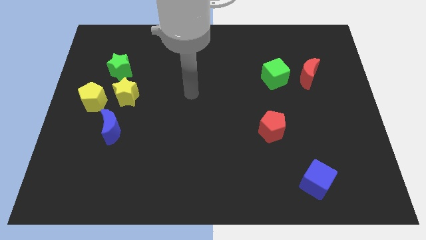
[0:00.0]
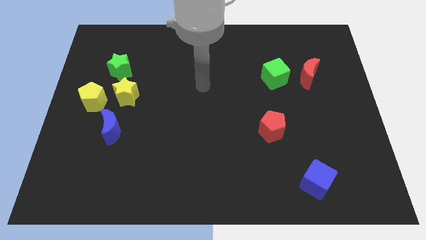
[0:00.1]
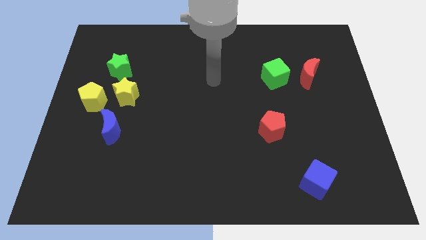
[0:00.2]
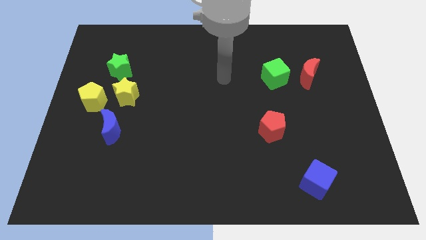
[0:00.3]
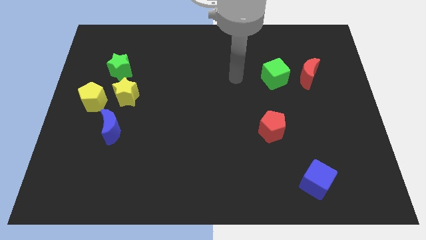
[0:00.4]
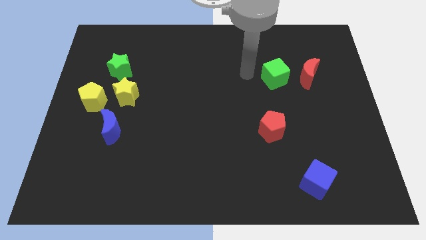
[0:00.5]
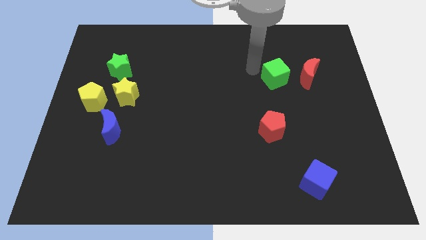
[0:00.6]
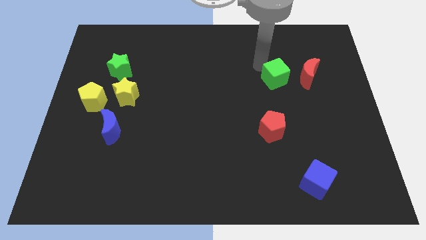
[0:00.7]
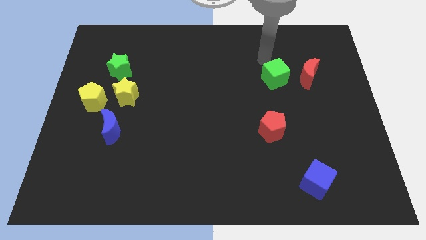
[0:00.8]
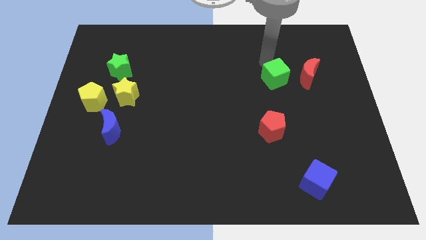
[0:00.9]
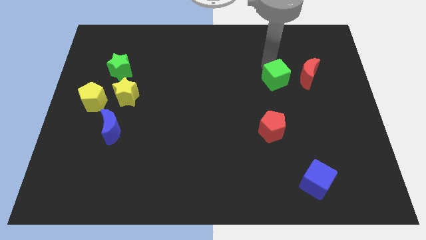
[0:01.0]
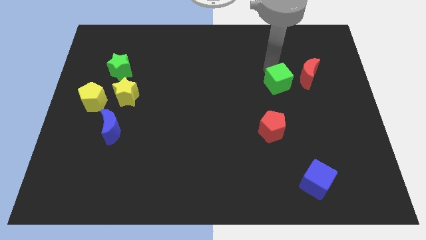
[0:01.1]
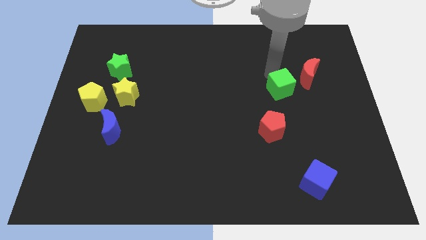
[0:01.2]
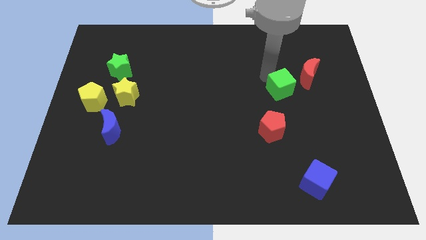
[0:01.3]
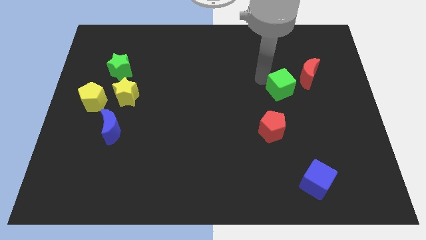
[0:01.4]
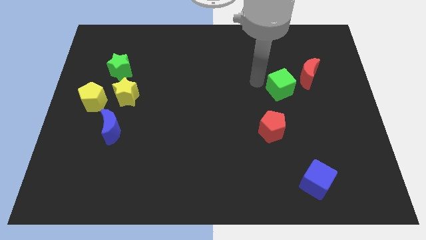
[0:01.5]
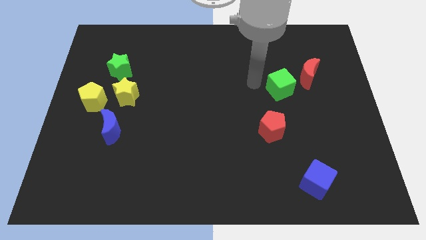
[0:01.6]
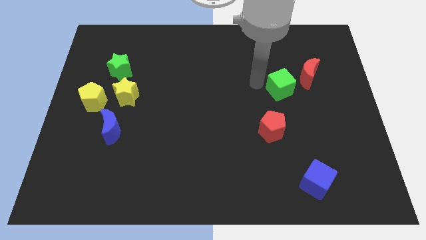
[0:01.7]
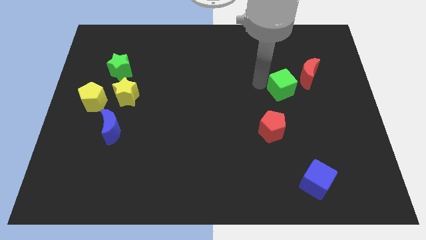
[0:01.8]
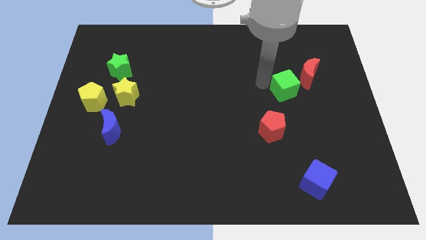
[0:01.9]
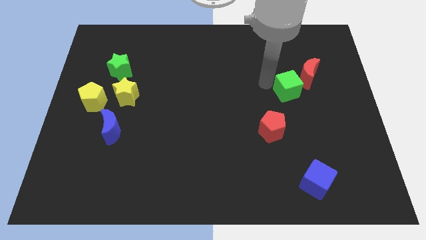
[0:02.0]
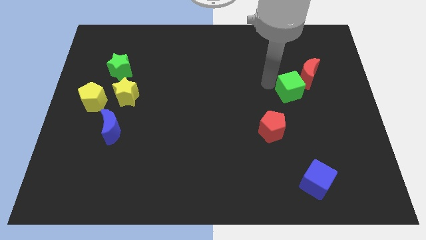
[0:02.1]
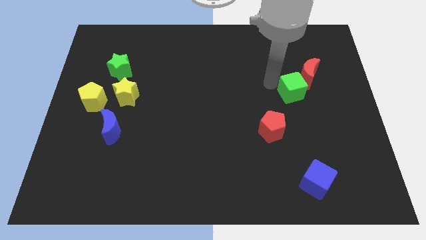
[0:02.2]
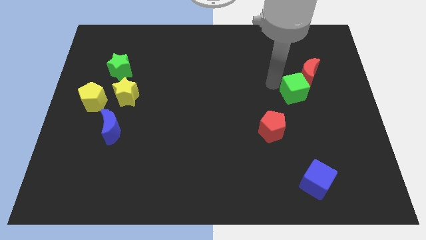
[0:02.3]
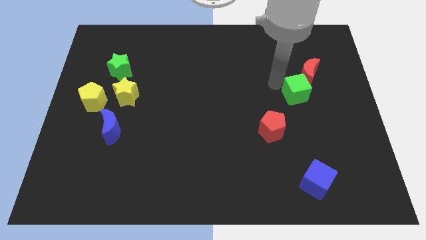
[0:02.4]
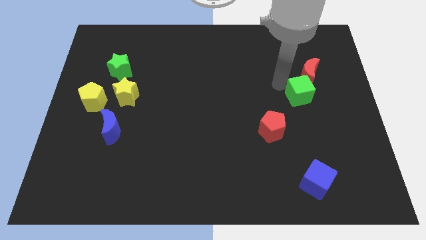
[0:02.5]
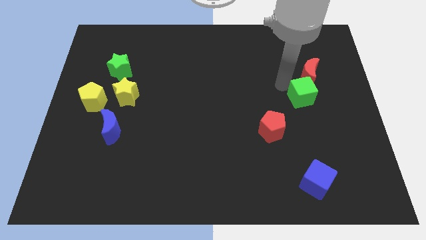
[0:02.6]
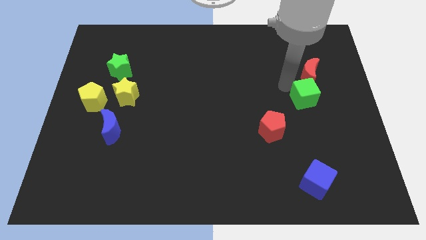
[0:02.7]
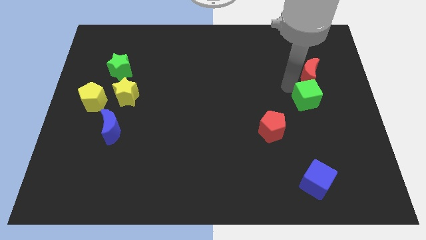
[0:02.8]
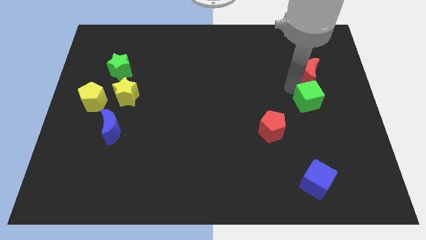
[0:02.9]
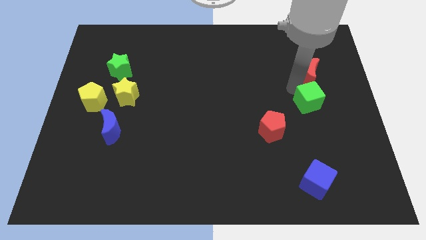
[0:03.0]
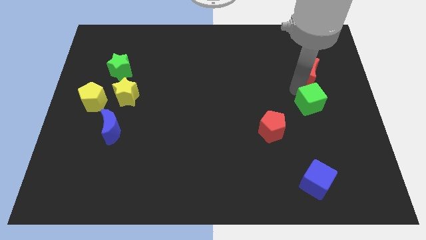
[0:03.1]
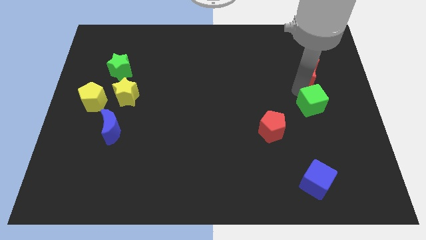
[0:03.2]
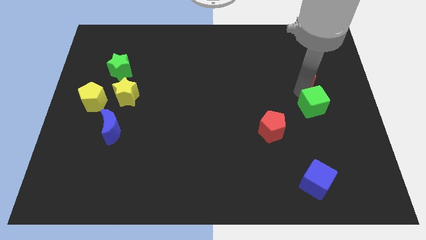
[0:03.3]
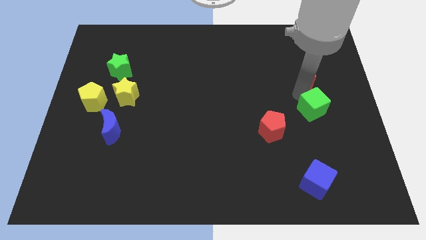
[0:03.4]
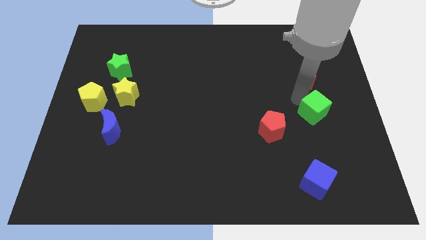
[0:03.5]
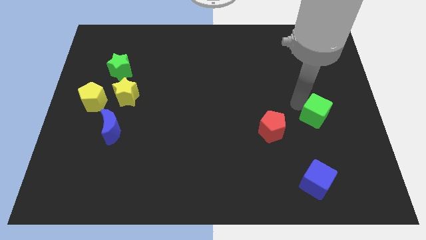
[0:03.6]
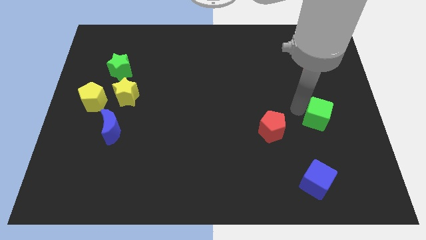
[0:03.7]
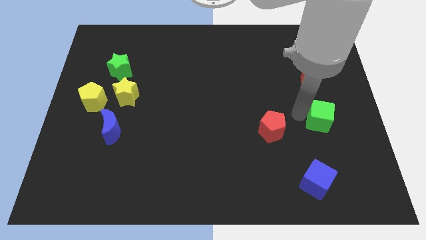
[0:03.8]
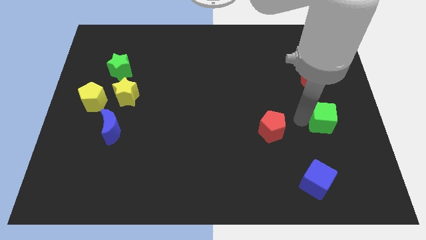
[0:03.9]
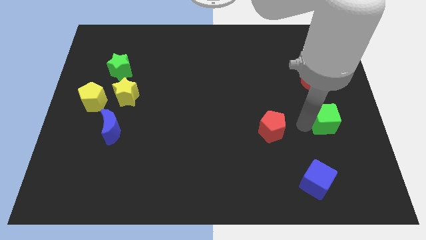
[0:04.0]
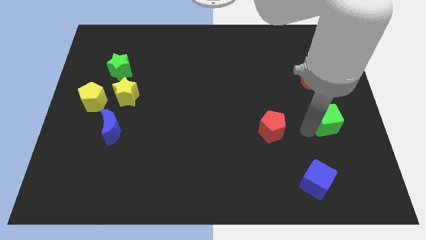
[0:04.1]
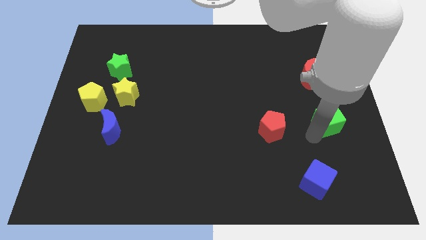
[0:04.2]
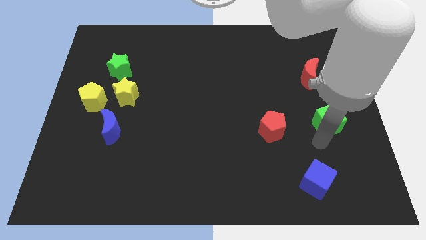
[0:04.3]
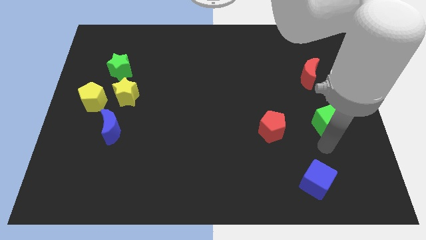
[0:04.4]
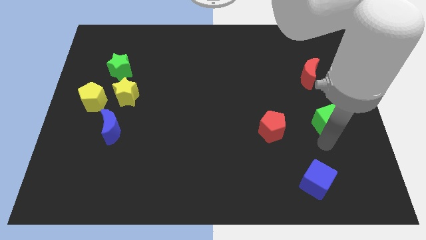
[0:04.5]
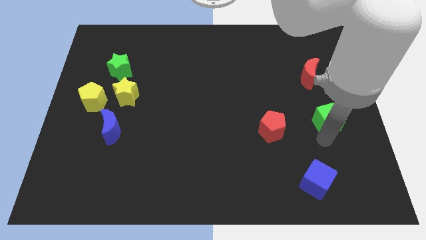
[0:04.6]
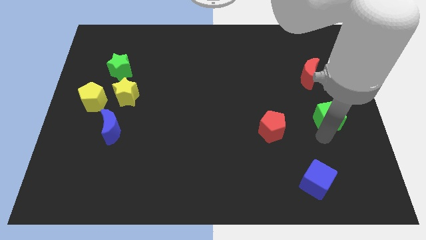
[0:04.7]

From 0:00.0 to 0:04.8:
push the green cube to the center right

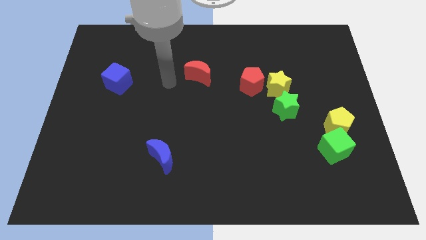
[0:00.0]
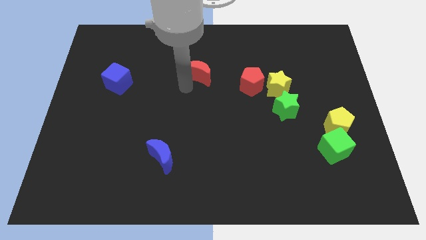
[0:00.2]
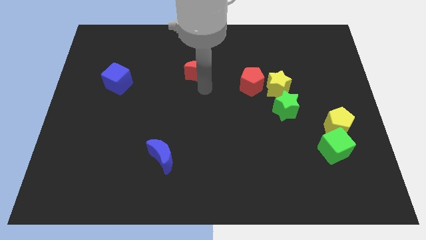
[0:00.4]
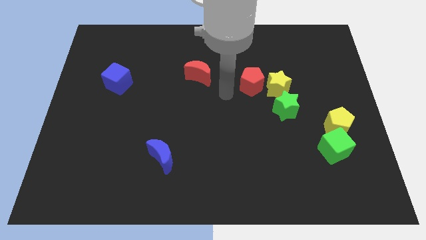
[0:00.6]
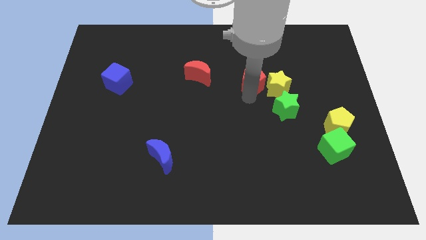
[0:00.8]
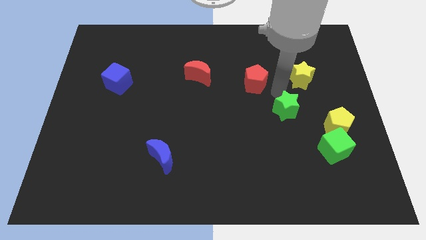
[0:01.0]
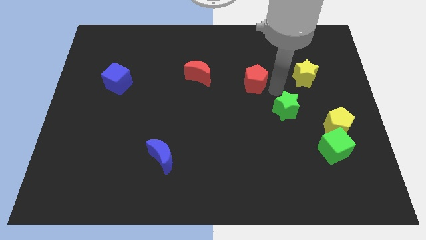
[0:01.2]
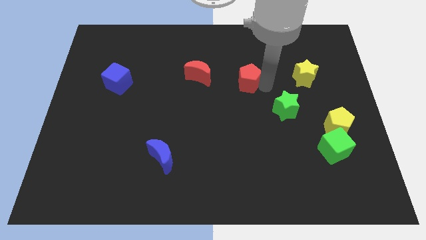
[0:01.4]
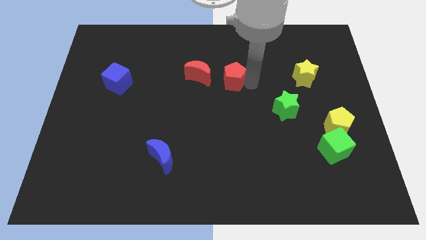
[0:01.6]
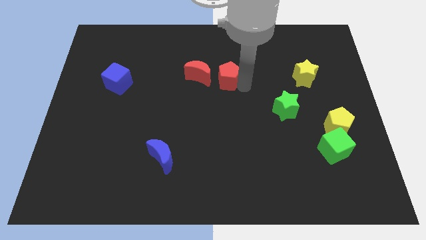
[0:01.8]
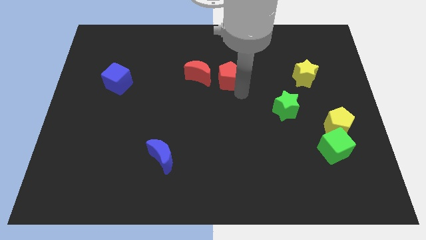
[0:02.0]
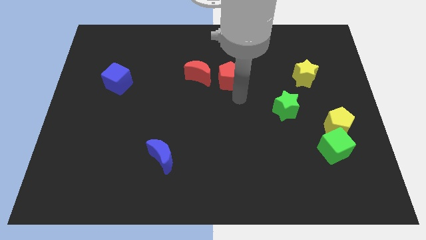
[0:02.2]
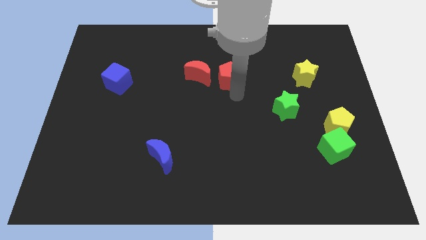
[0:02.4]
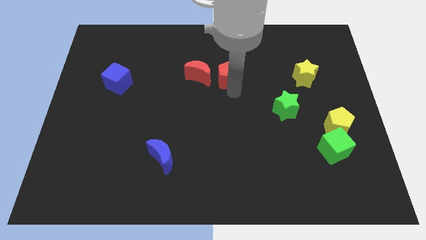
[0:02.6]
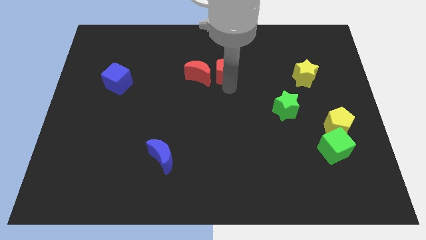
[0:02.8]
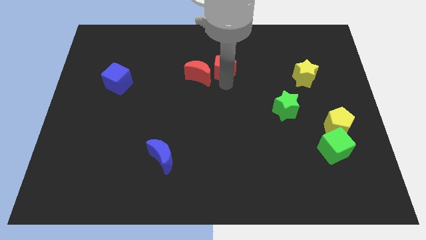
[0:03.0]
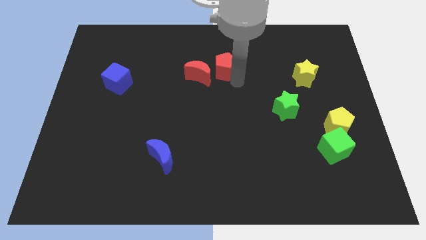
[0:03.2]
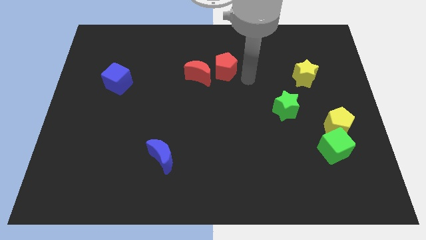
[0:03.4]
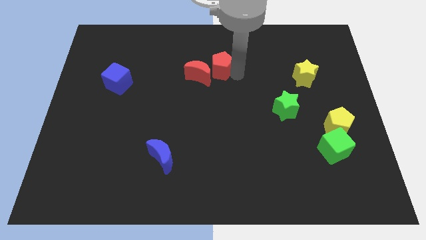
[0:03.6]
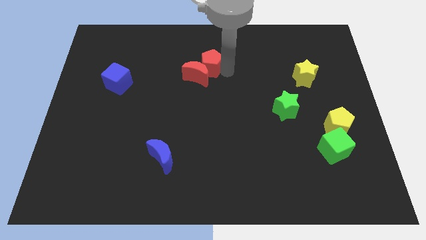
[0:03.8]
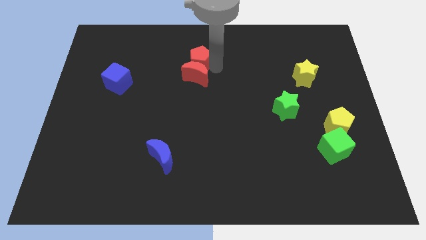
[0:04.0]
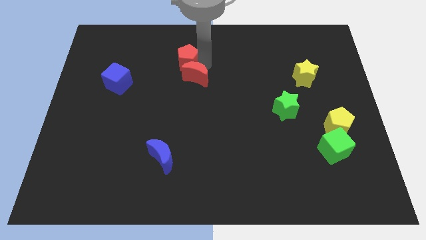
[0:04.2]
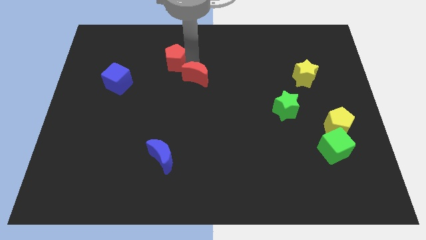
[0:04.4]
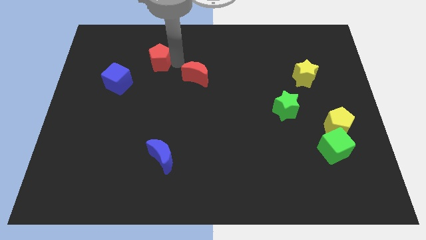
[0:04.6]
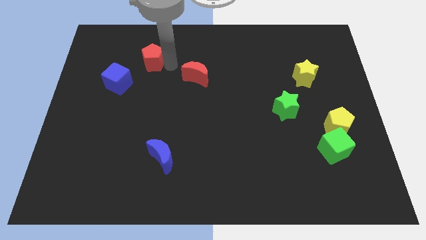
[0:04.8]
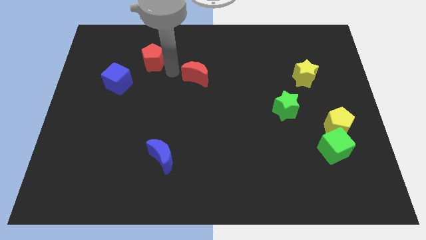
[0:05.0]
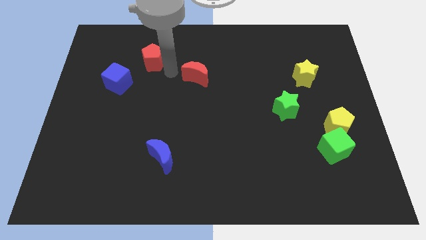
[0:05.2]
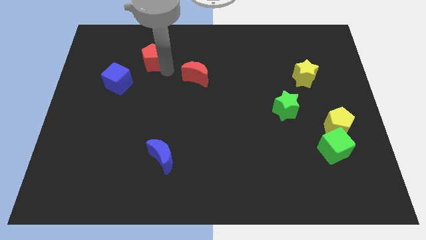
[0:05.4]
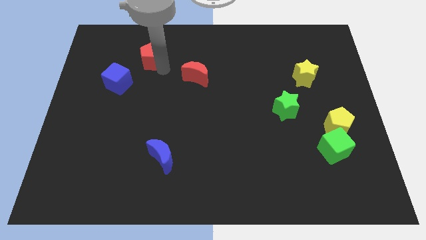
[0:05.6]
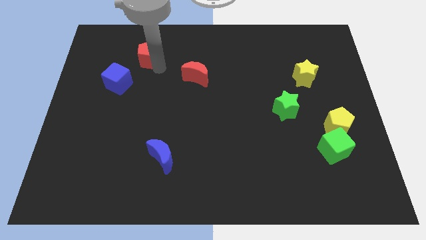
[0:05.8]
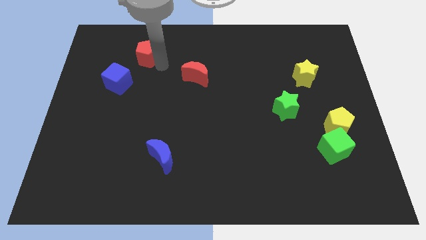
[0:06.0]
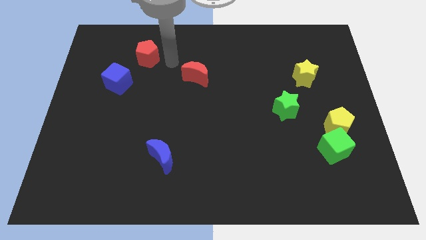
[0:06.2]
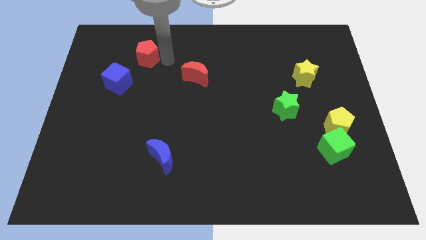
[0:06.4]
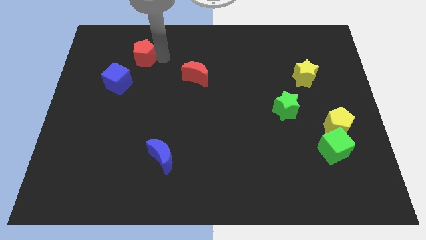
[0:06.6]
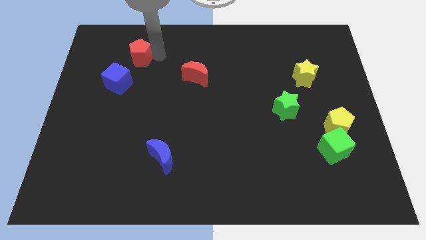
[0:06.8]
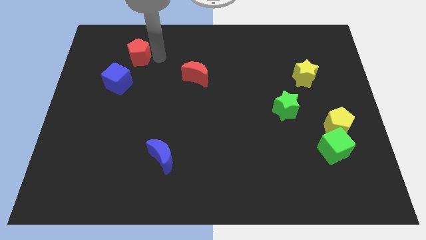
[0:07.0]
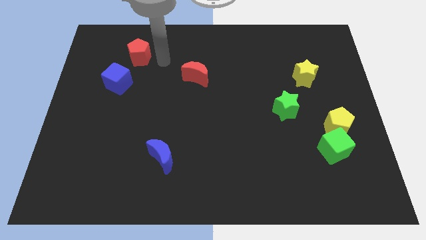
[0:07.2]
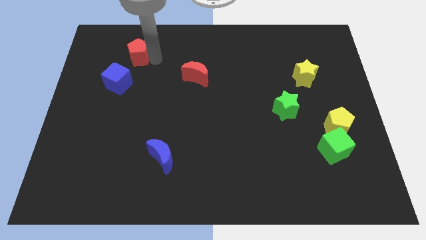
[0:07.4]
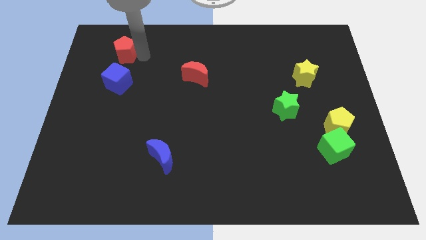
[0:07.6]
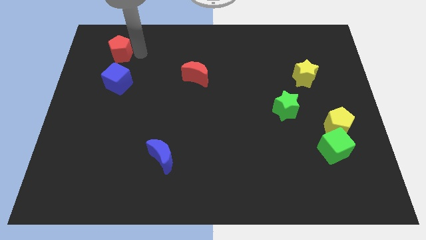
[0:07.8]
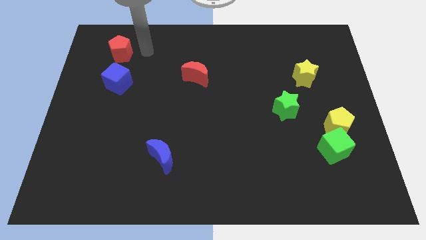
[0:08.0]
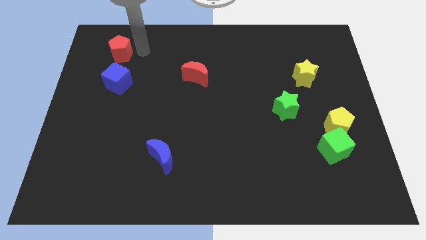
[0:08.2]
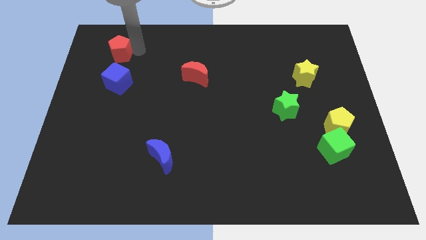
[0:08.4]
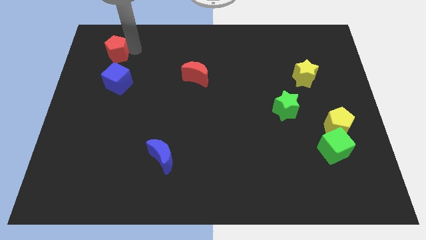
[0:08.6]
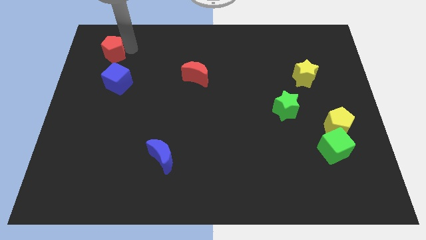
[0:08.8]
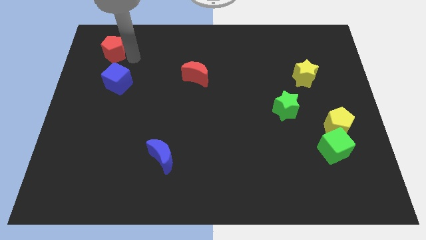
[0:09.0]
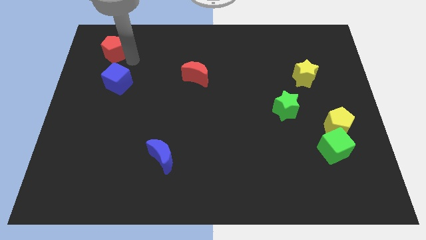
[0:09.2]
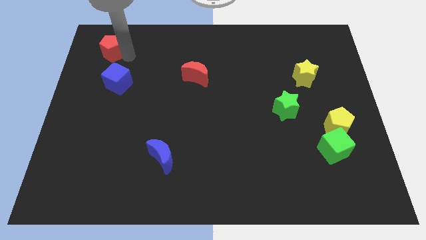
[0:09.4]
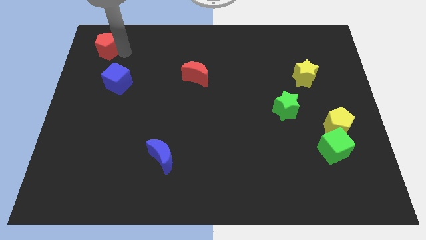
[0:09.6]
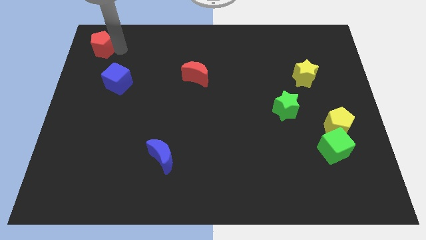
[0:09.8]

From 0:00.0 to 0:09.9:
move the red pentagon to the upper left corner
